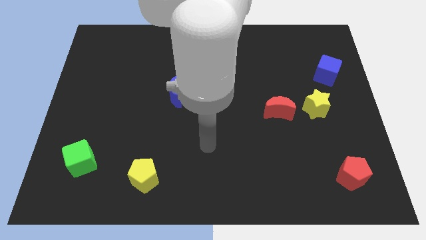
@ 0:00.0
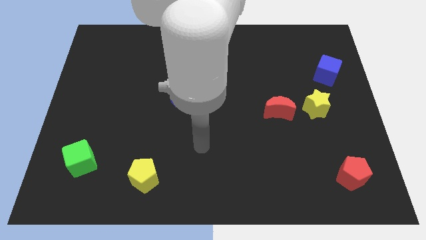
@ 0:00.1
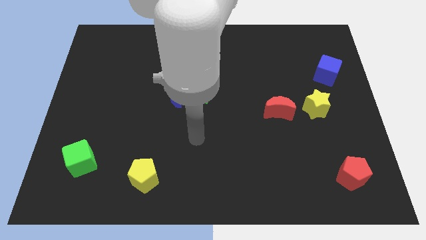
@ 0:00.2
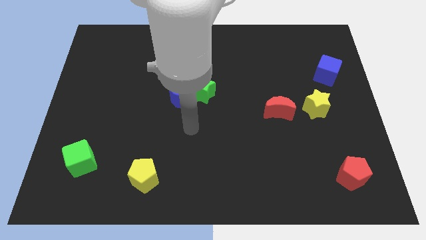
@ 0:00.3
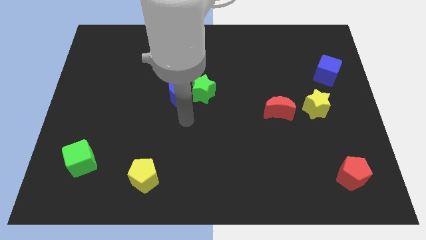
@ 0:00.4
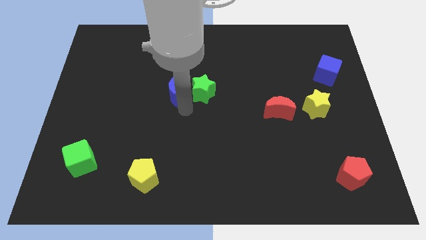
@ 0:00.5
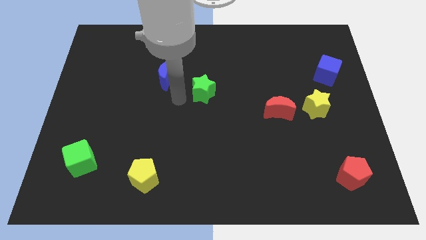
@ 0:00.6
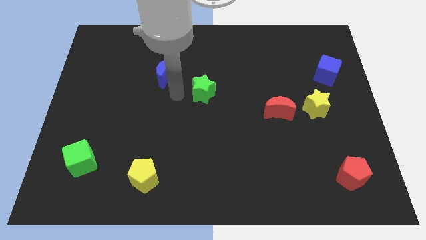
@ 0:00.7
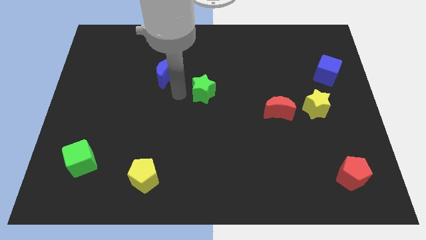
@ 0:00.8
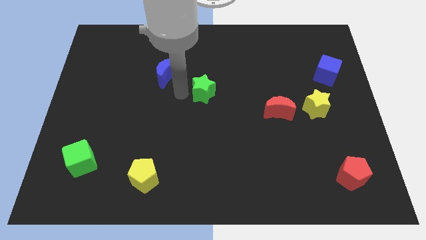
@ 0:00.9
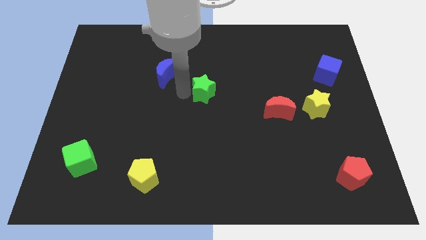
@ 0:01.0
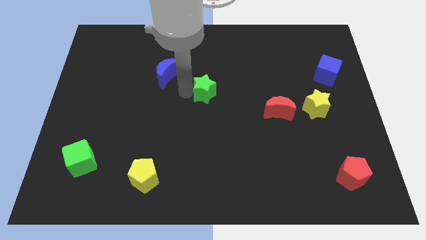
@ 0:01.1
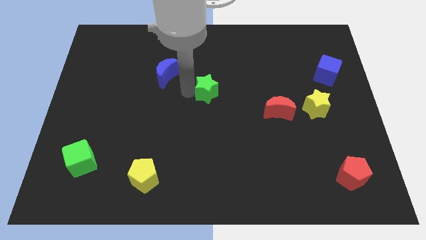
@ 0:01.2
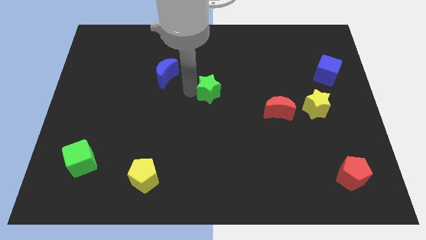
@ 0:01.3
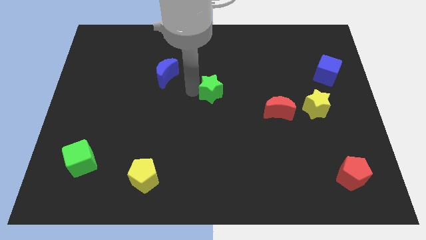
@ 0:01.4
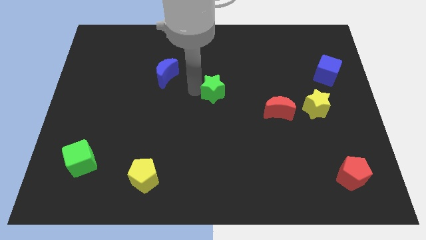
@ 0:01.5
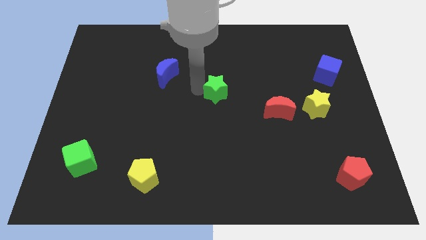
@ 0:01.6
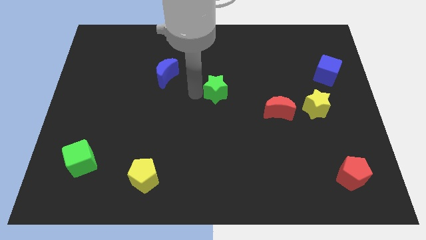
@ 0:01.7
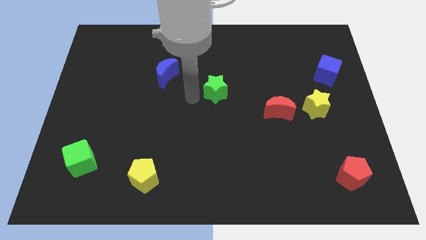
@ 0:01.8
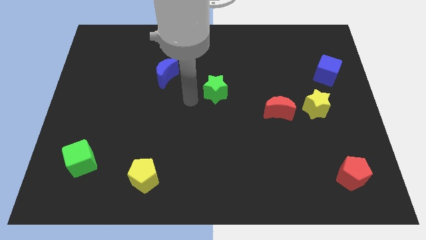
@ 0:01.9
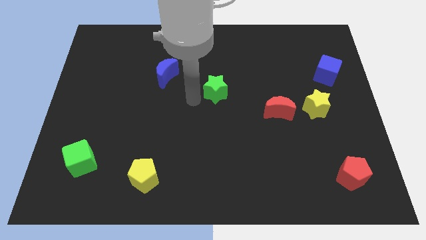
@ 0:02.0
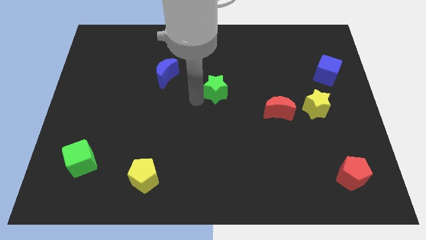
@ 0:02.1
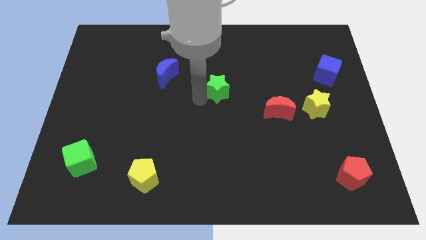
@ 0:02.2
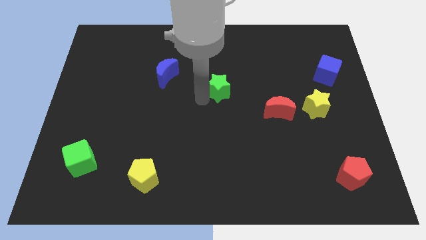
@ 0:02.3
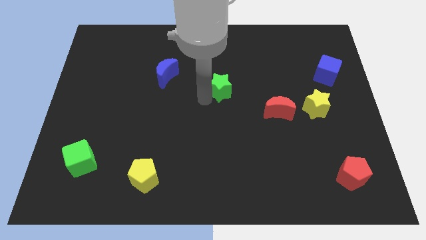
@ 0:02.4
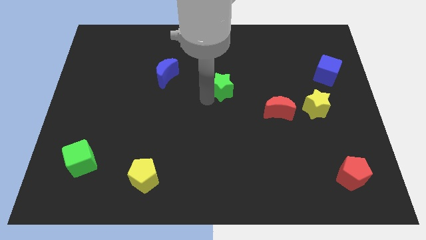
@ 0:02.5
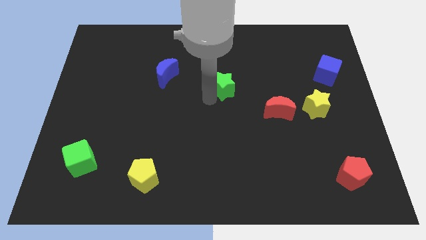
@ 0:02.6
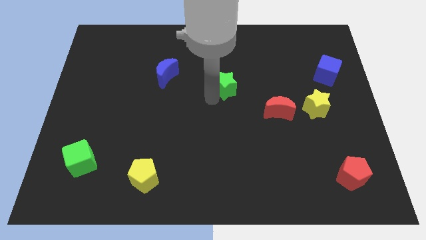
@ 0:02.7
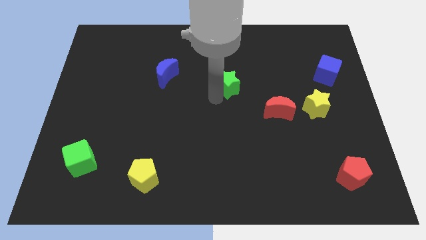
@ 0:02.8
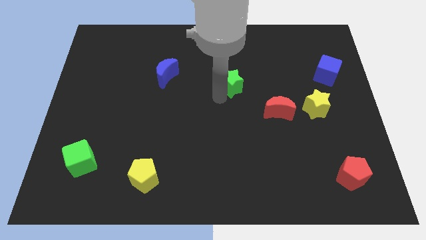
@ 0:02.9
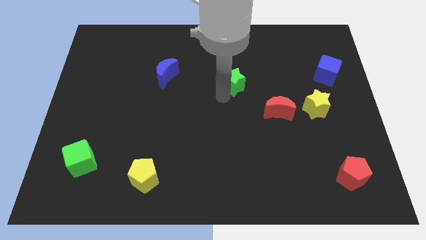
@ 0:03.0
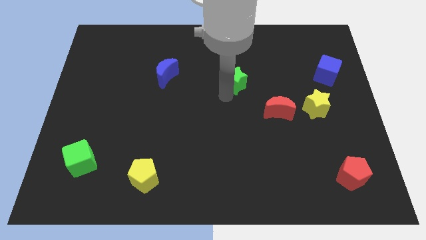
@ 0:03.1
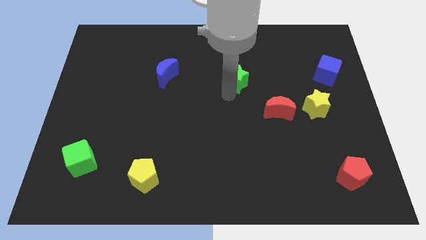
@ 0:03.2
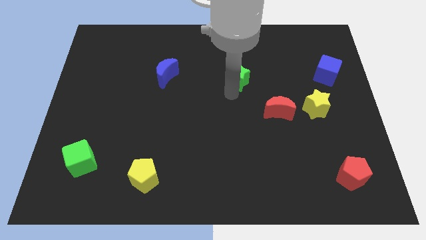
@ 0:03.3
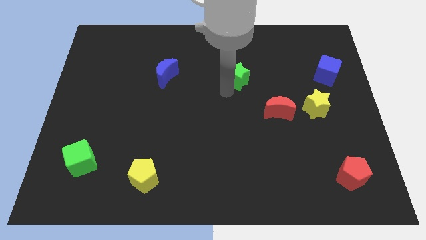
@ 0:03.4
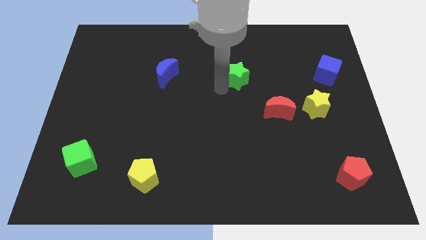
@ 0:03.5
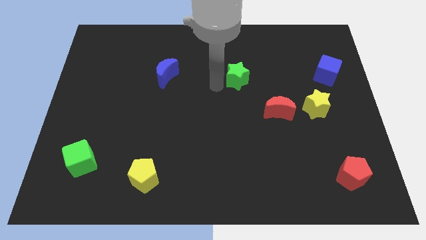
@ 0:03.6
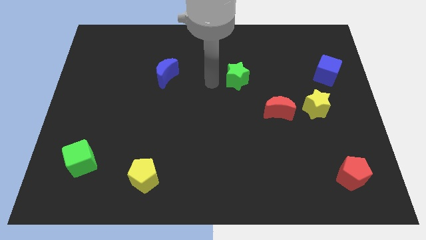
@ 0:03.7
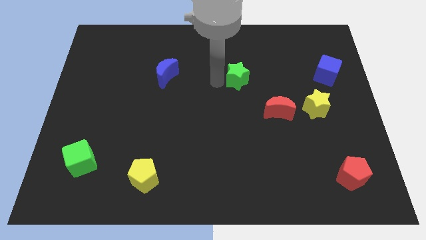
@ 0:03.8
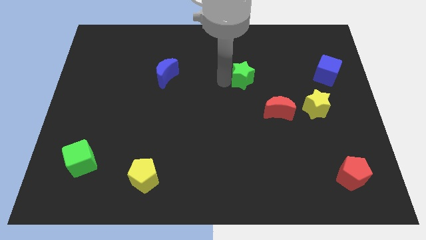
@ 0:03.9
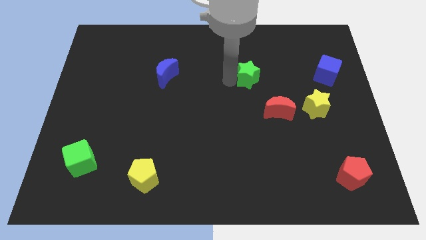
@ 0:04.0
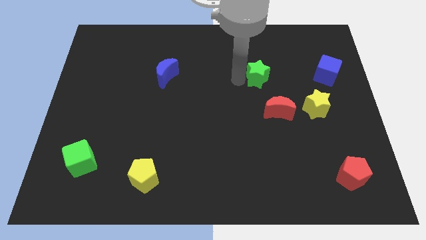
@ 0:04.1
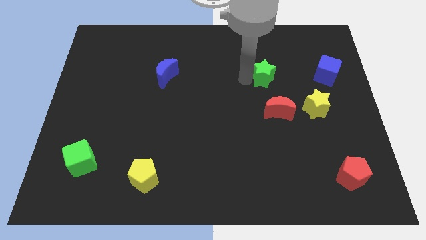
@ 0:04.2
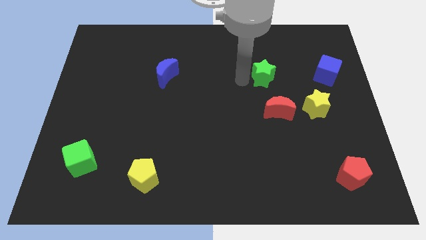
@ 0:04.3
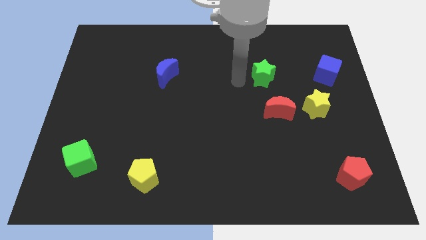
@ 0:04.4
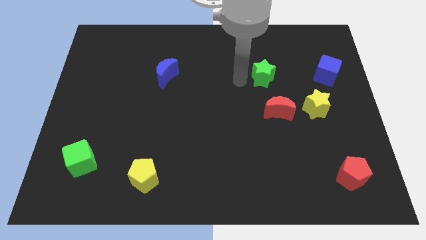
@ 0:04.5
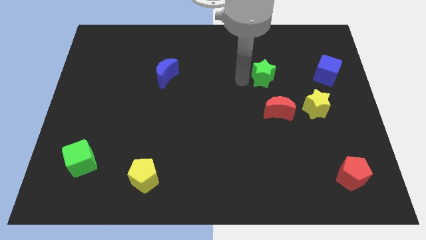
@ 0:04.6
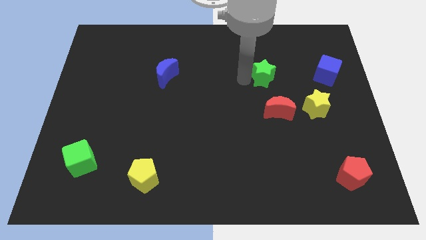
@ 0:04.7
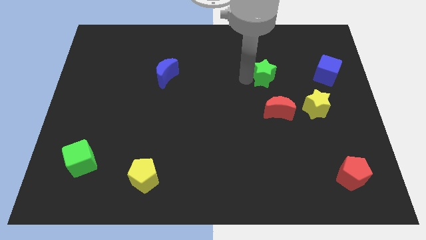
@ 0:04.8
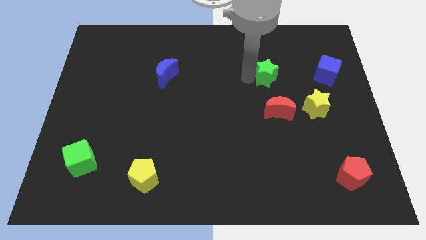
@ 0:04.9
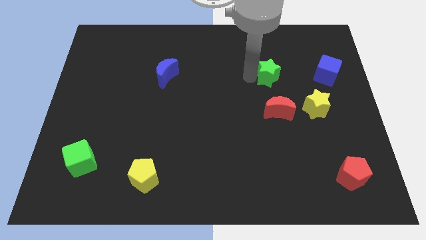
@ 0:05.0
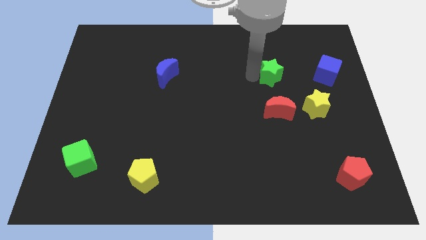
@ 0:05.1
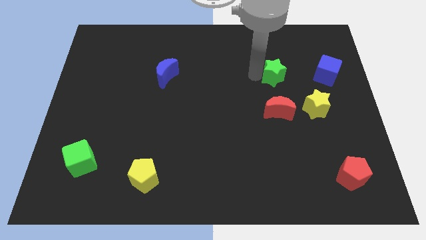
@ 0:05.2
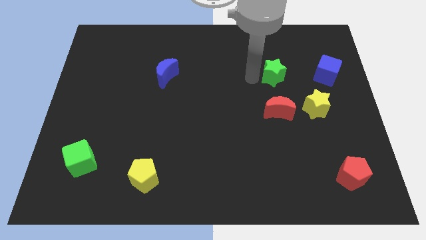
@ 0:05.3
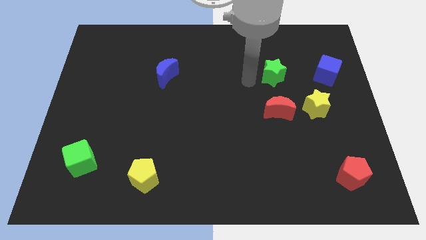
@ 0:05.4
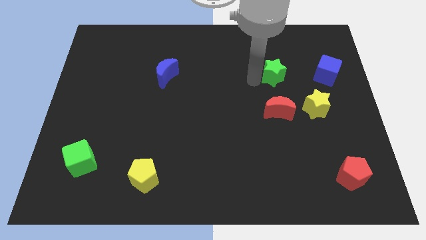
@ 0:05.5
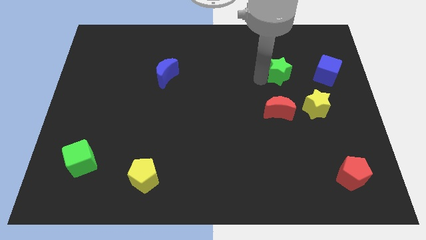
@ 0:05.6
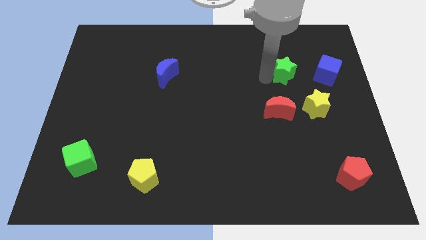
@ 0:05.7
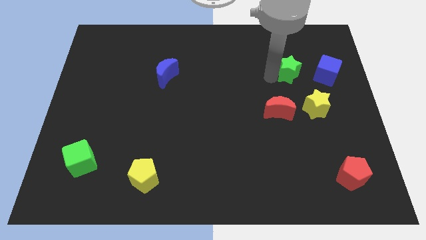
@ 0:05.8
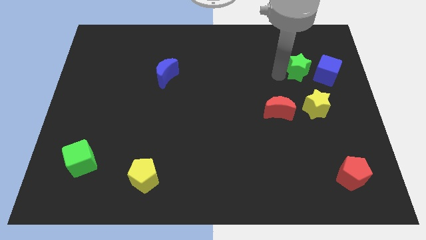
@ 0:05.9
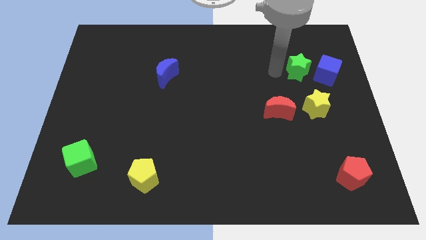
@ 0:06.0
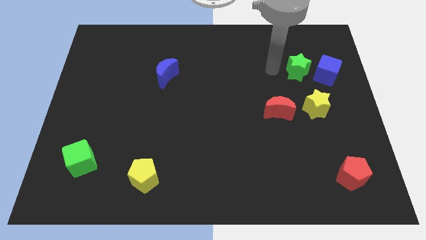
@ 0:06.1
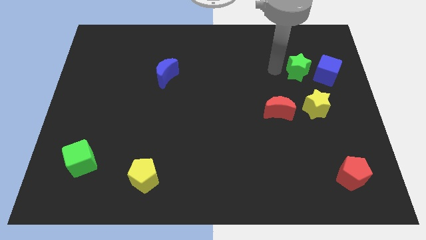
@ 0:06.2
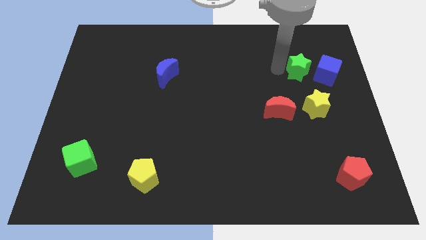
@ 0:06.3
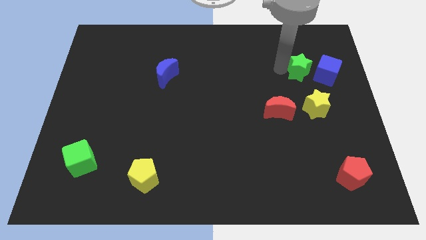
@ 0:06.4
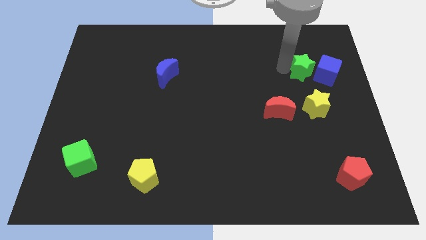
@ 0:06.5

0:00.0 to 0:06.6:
push the green star to the blue cube

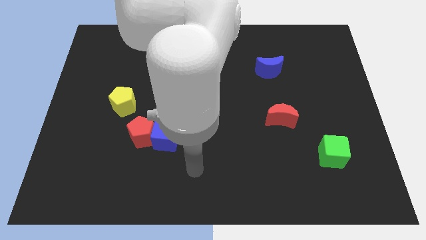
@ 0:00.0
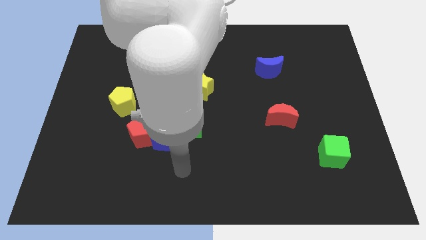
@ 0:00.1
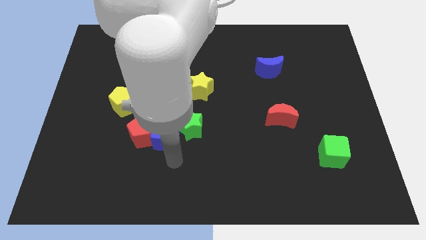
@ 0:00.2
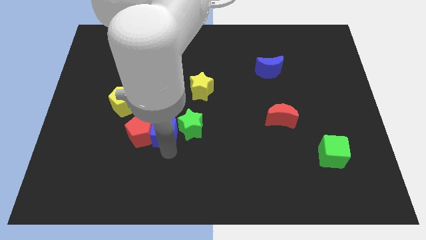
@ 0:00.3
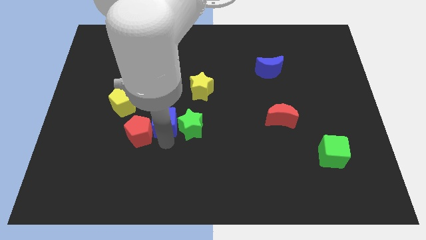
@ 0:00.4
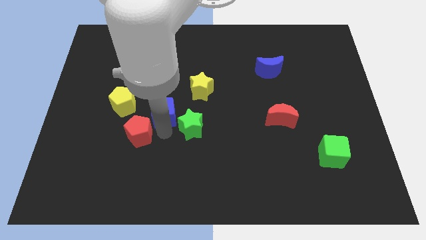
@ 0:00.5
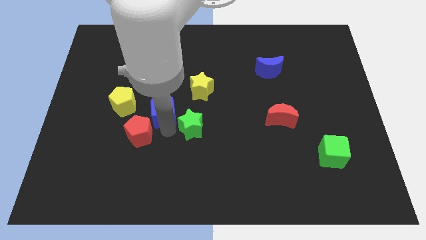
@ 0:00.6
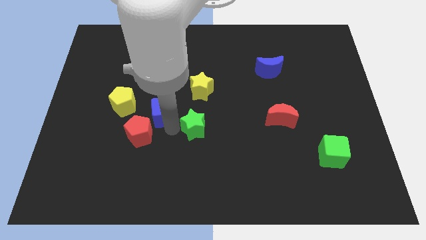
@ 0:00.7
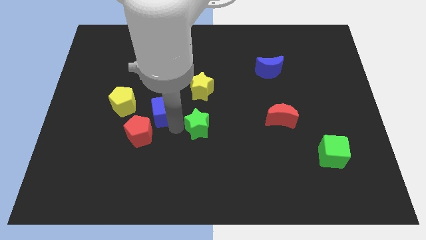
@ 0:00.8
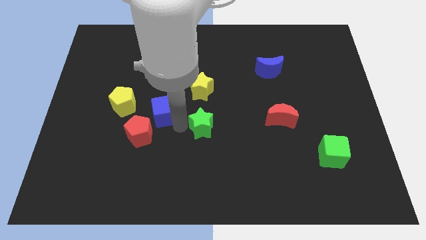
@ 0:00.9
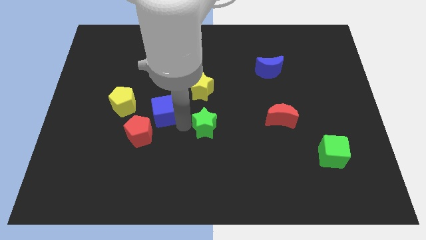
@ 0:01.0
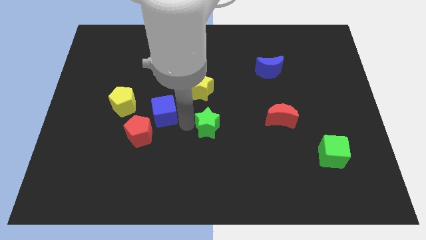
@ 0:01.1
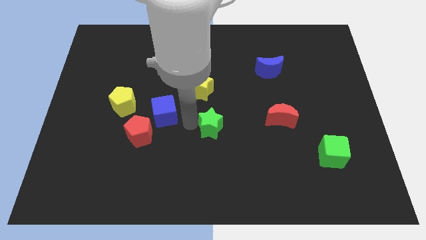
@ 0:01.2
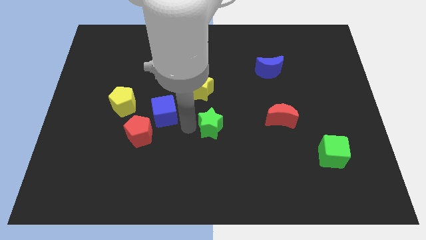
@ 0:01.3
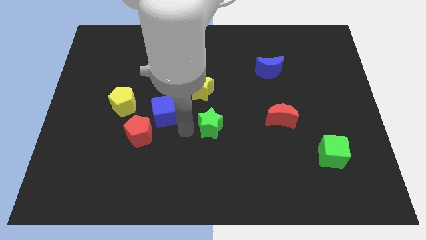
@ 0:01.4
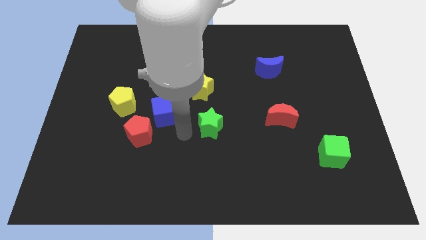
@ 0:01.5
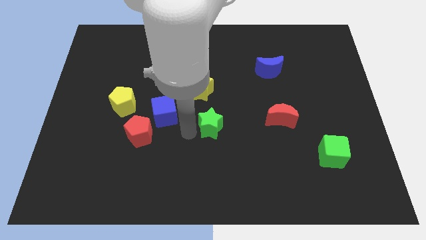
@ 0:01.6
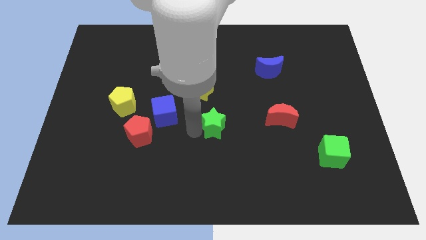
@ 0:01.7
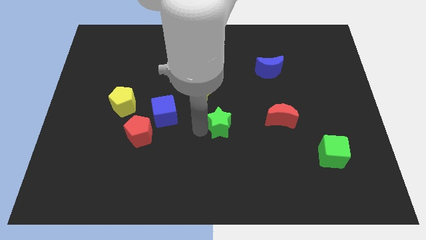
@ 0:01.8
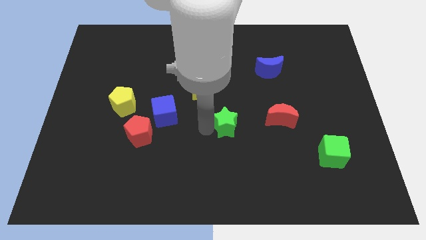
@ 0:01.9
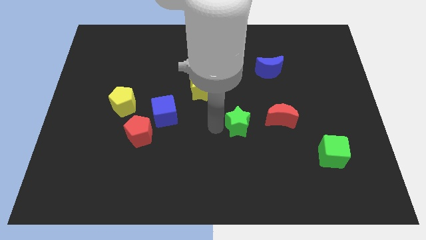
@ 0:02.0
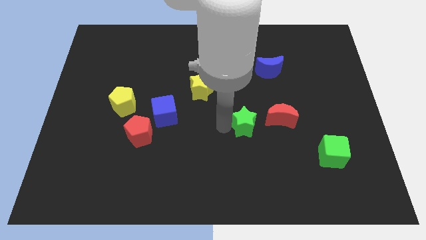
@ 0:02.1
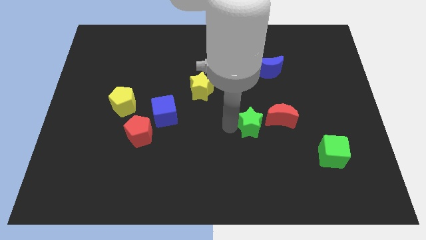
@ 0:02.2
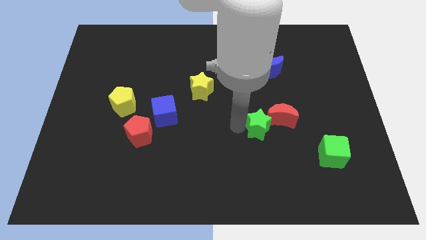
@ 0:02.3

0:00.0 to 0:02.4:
push the green star towards the red moon
